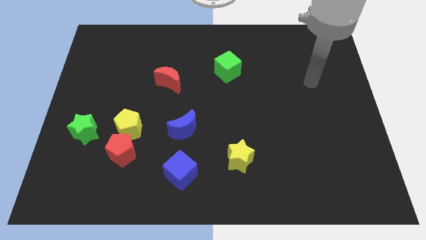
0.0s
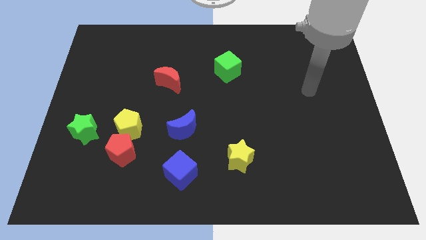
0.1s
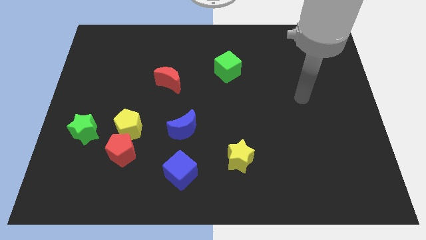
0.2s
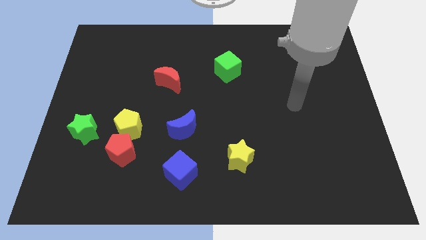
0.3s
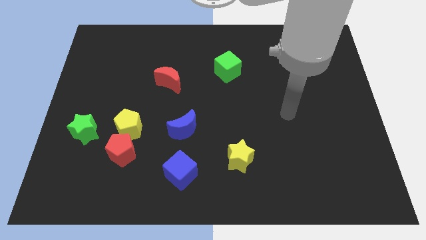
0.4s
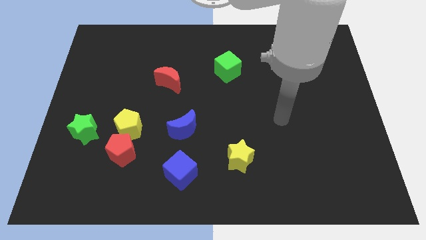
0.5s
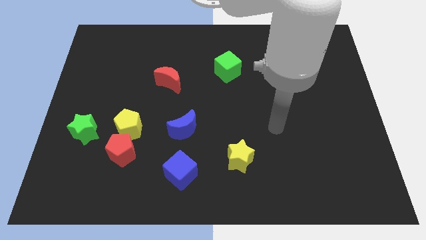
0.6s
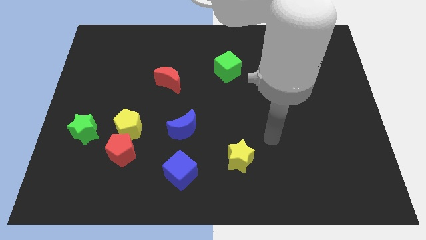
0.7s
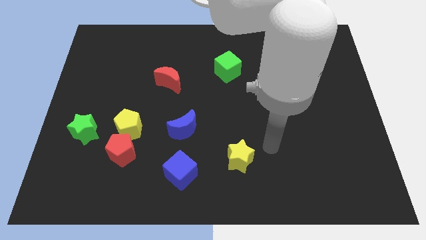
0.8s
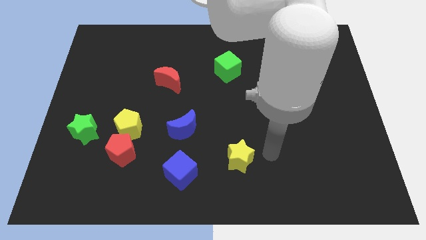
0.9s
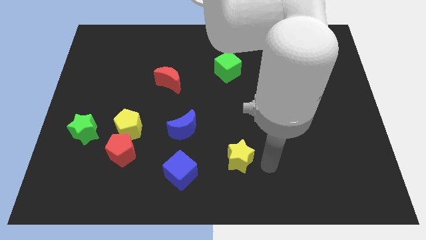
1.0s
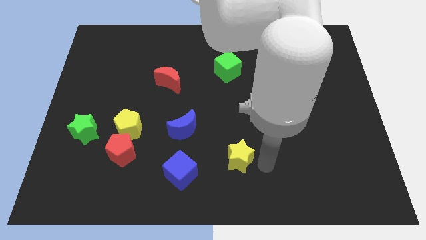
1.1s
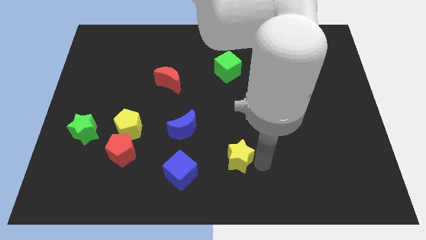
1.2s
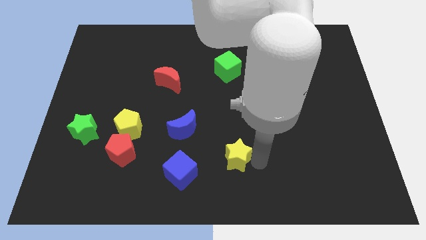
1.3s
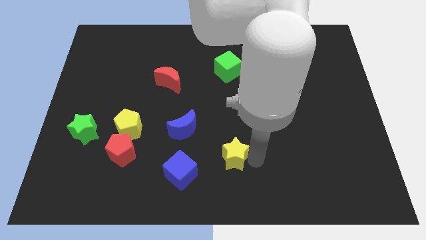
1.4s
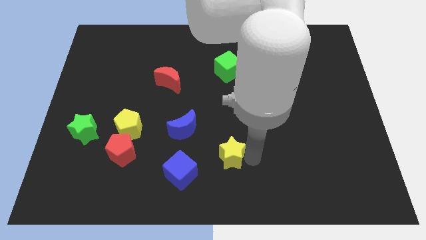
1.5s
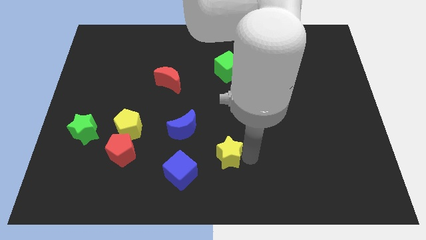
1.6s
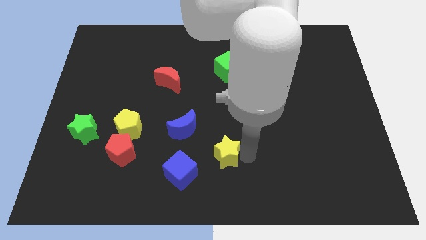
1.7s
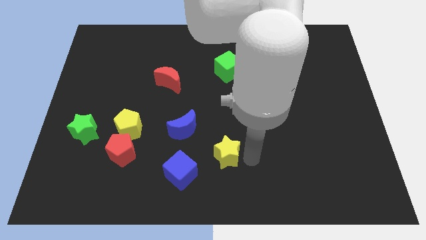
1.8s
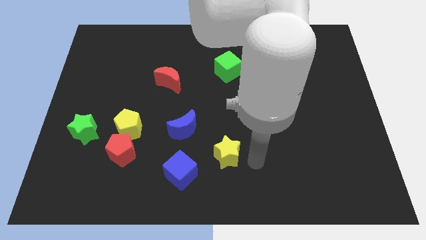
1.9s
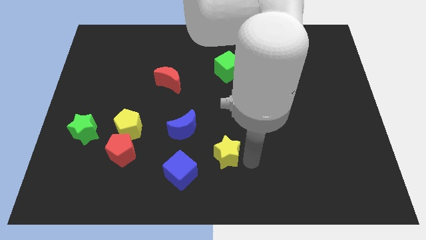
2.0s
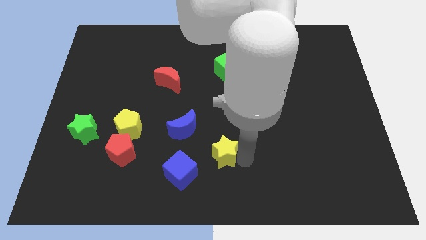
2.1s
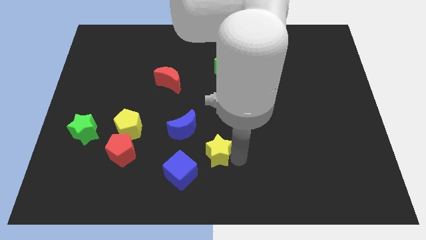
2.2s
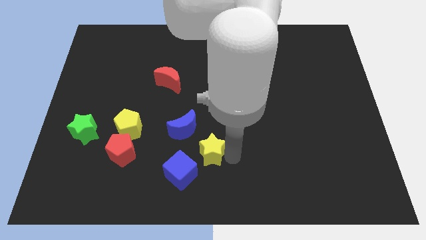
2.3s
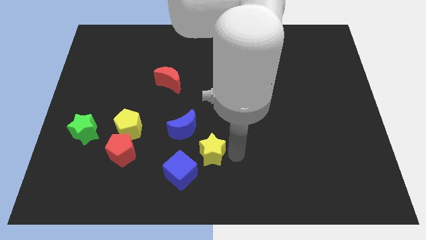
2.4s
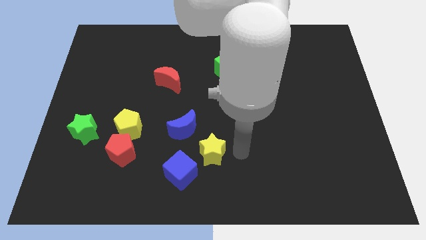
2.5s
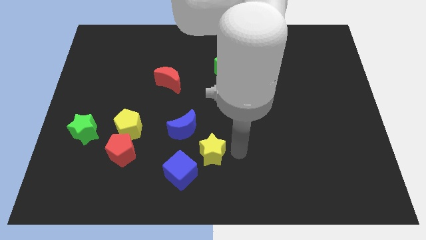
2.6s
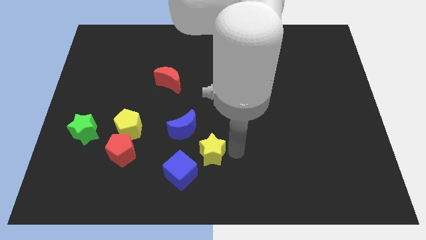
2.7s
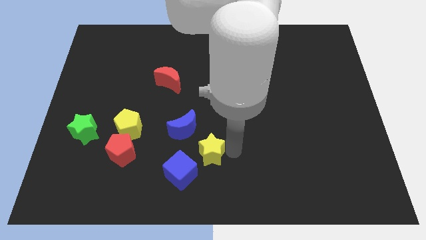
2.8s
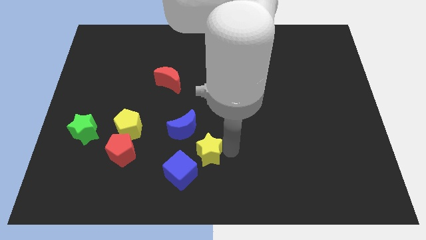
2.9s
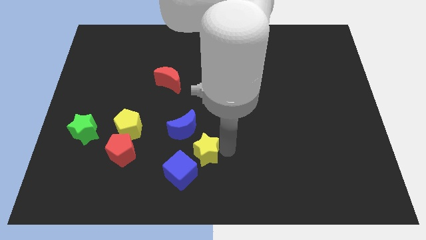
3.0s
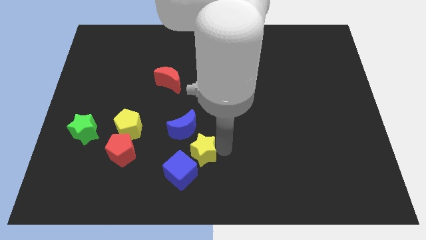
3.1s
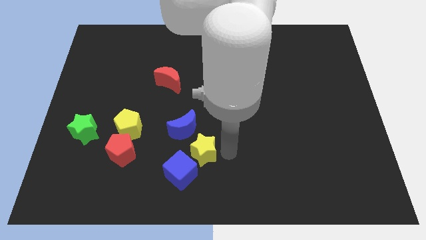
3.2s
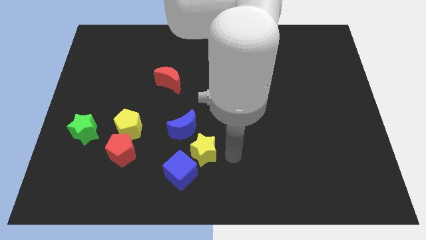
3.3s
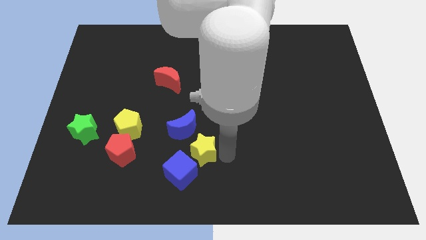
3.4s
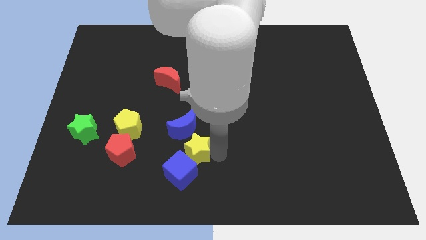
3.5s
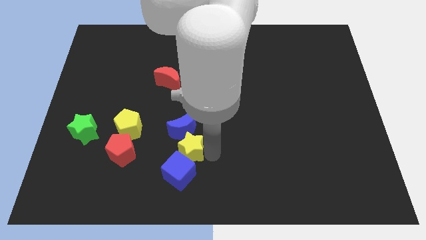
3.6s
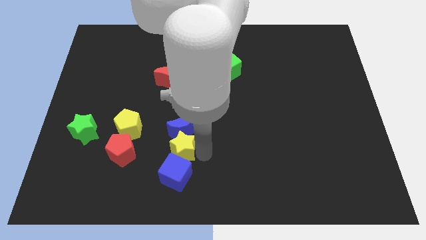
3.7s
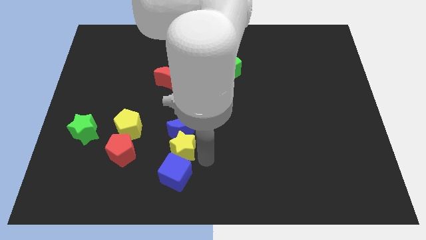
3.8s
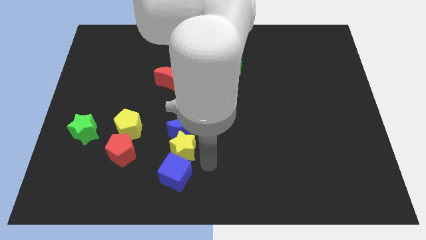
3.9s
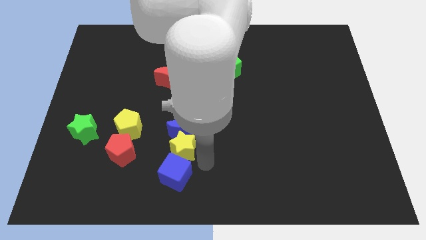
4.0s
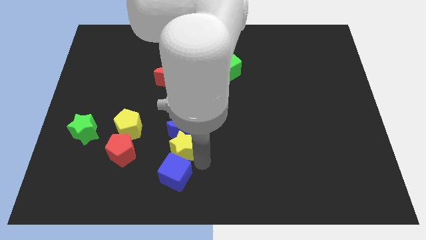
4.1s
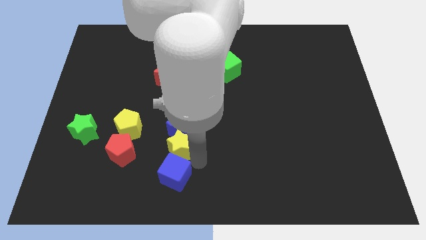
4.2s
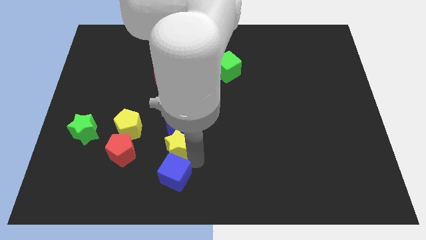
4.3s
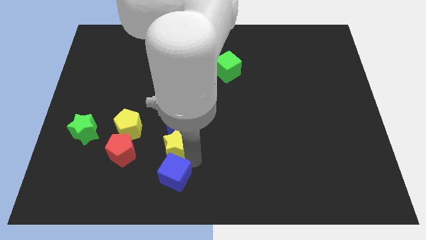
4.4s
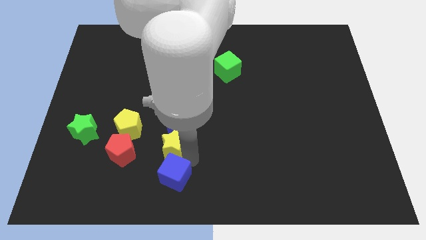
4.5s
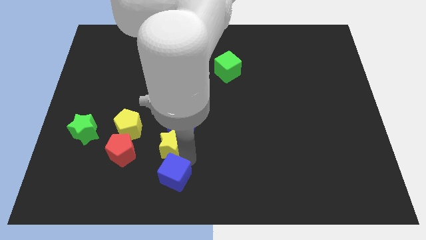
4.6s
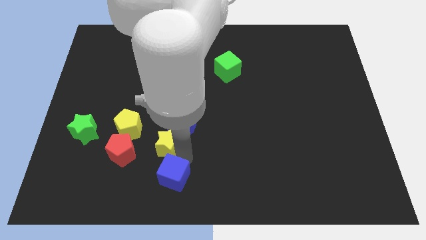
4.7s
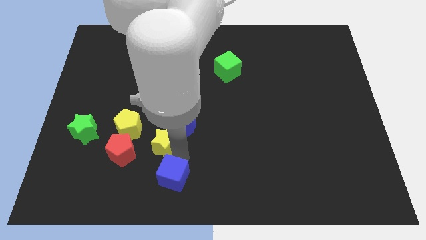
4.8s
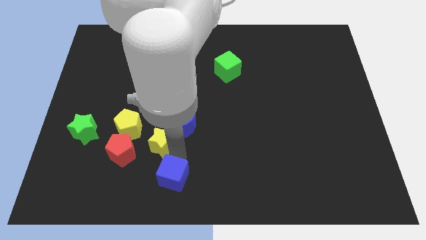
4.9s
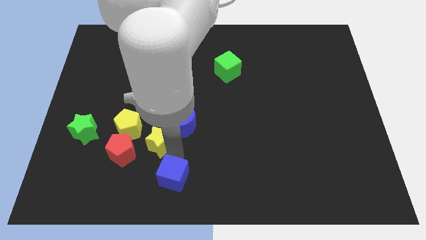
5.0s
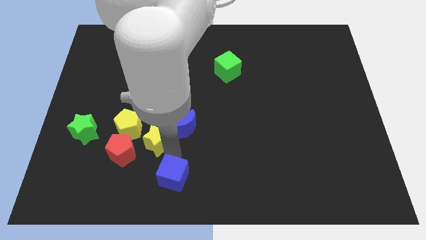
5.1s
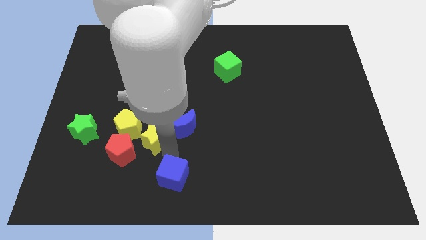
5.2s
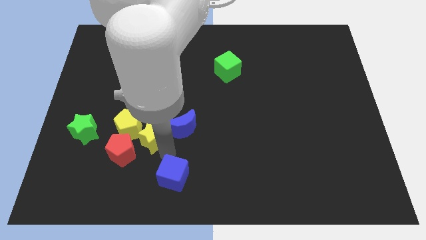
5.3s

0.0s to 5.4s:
put the yellow star next to the yellow pentagon

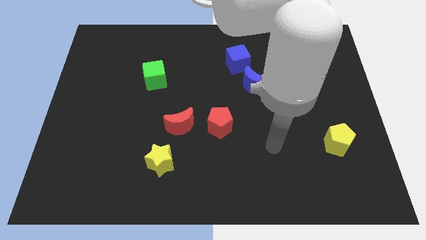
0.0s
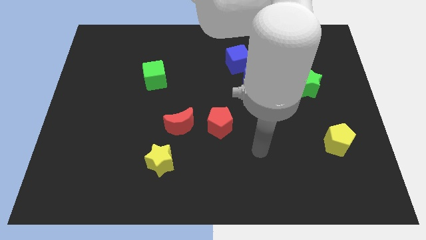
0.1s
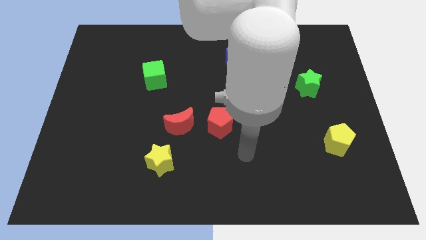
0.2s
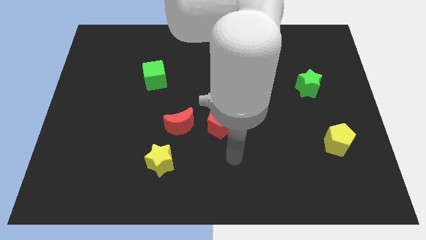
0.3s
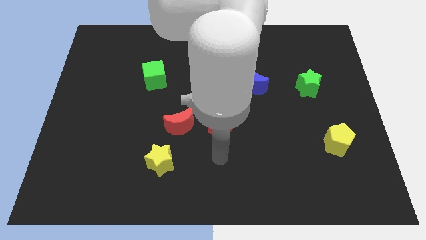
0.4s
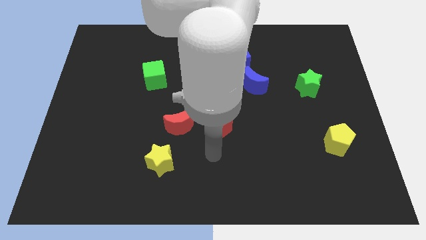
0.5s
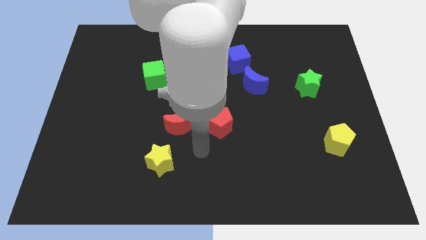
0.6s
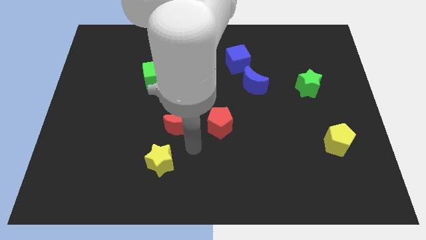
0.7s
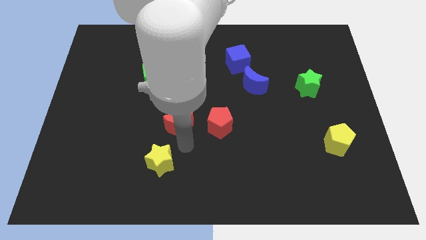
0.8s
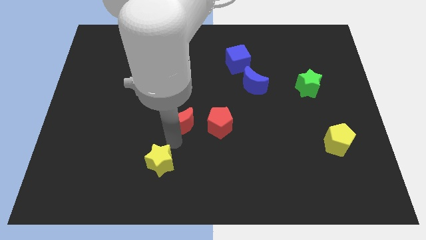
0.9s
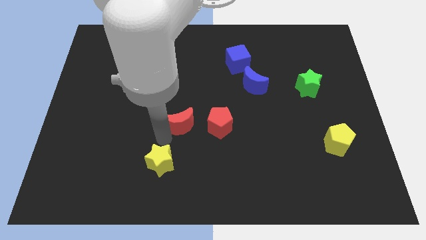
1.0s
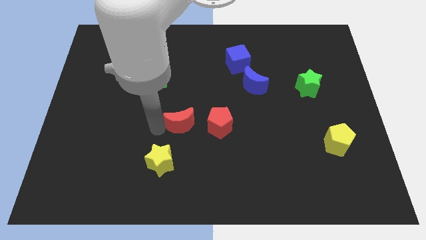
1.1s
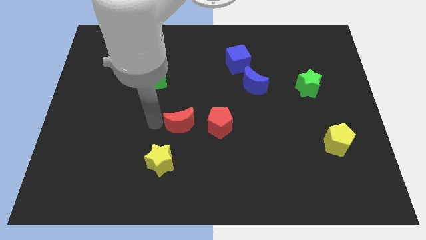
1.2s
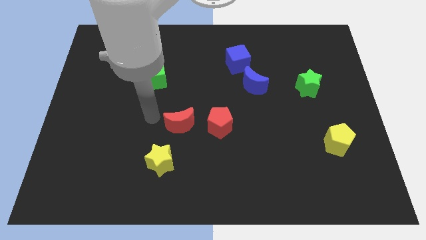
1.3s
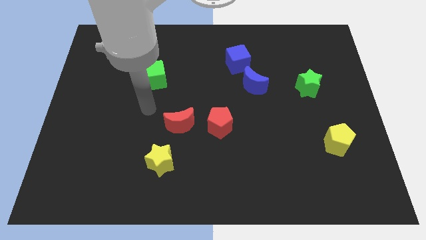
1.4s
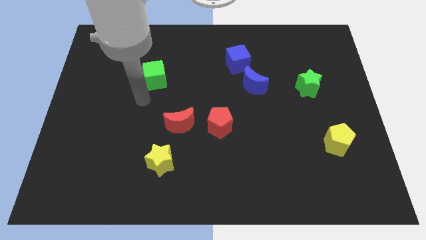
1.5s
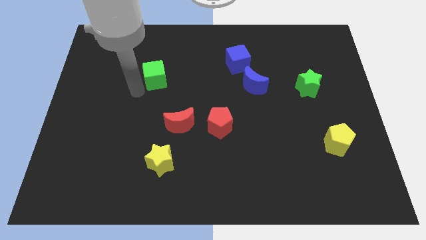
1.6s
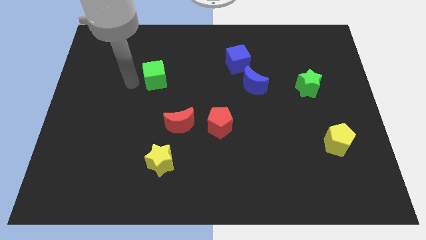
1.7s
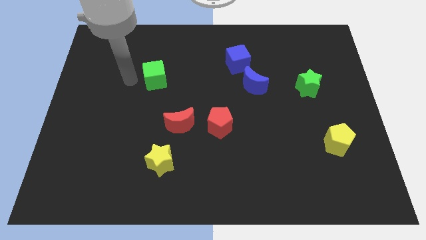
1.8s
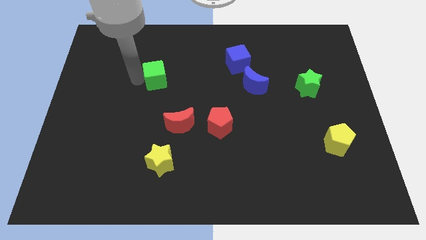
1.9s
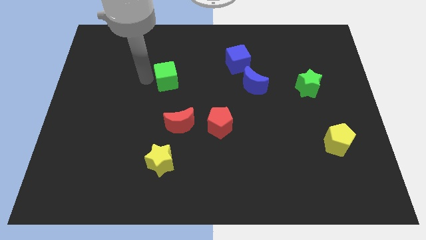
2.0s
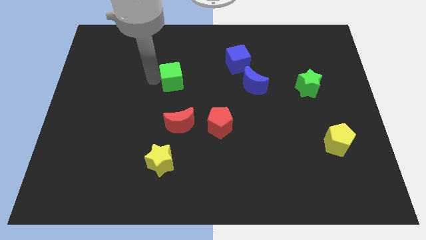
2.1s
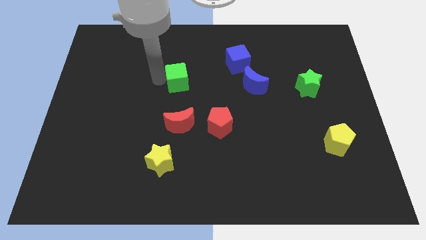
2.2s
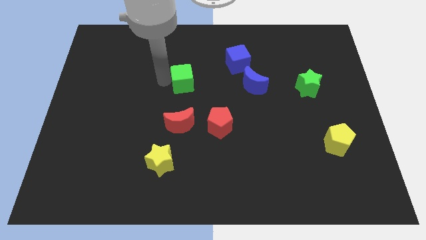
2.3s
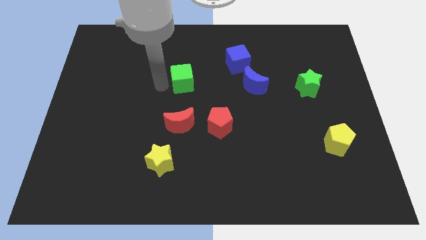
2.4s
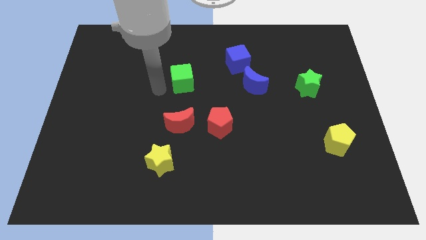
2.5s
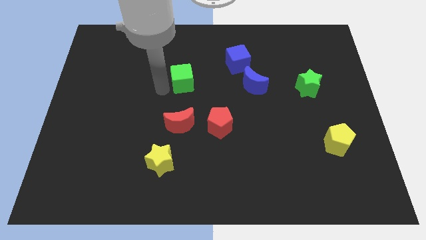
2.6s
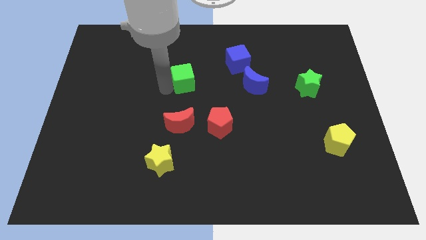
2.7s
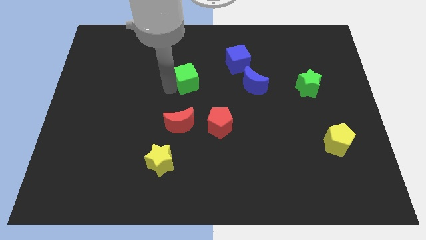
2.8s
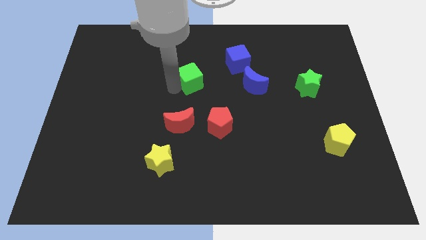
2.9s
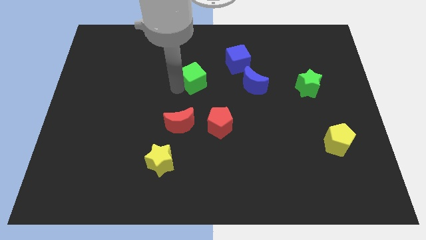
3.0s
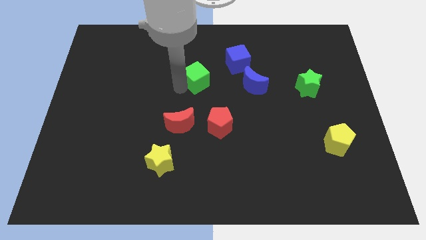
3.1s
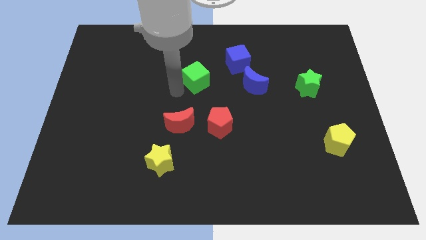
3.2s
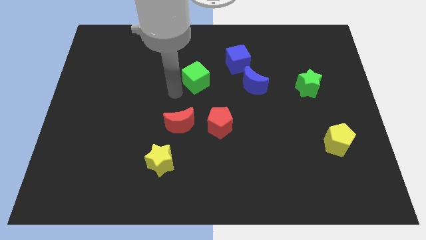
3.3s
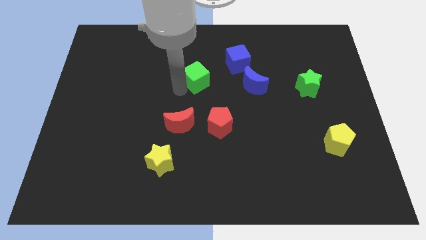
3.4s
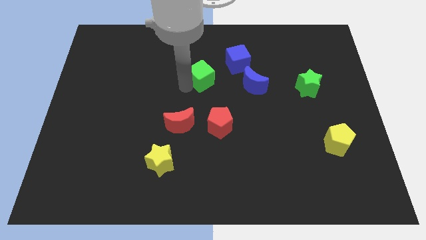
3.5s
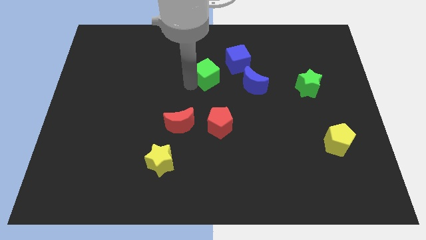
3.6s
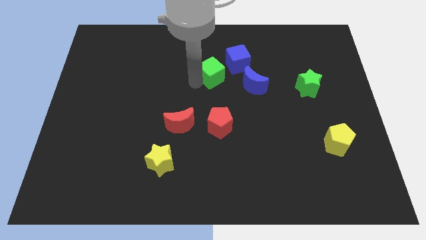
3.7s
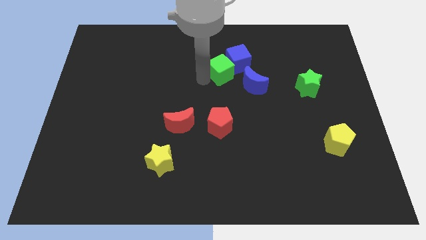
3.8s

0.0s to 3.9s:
push the green cube towards the blue cube
